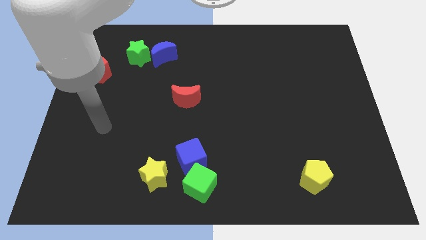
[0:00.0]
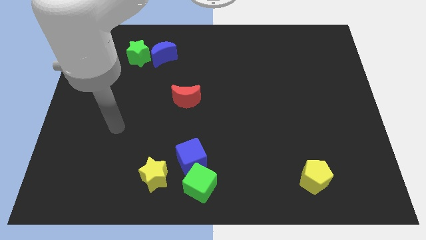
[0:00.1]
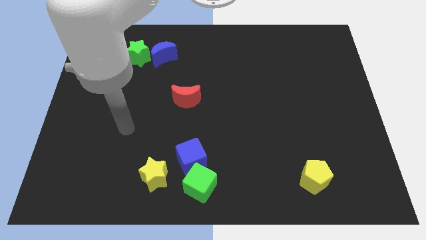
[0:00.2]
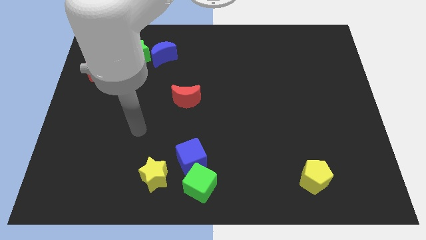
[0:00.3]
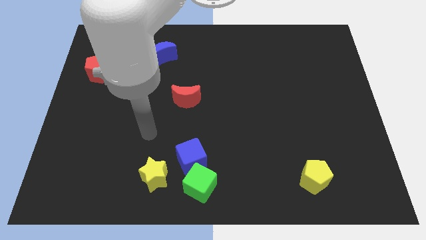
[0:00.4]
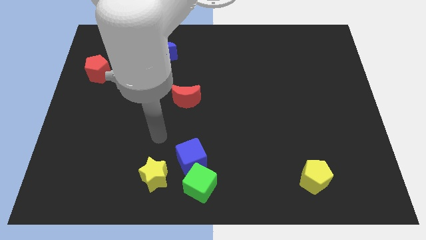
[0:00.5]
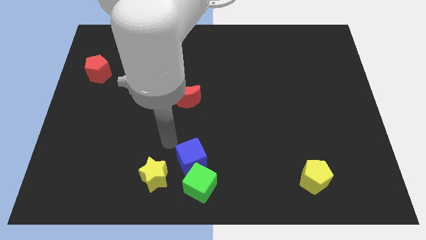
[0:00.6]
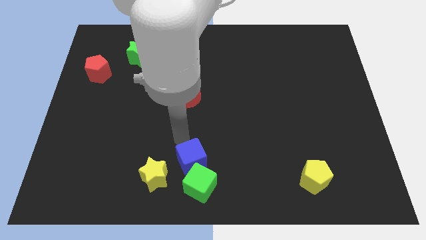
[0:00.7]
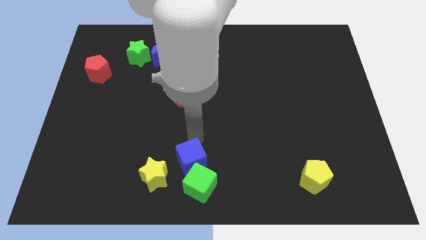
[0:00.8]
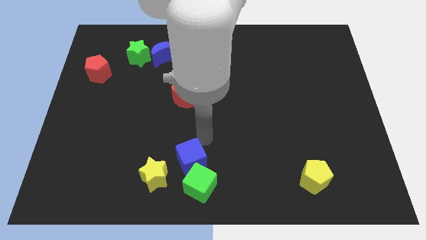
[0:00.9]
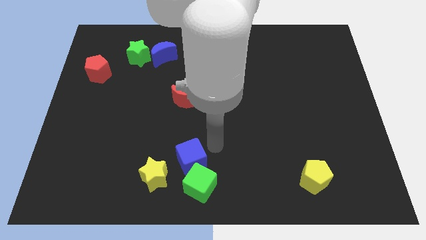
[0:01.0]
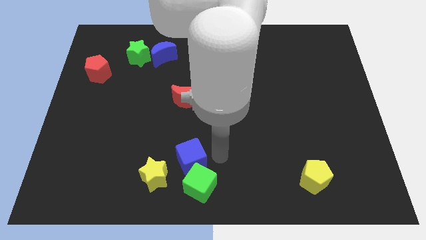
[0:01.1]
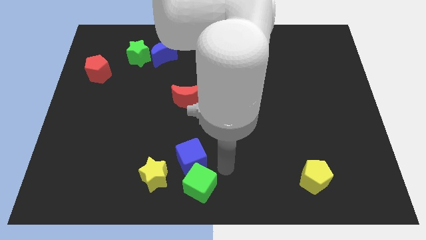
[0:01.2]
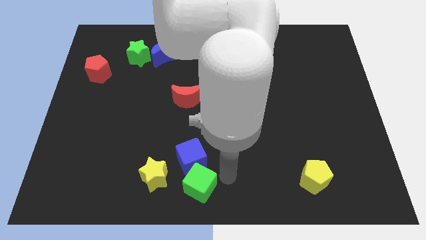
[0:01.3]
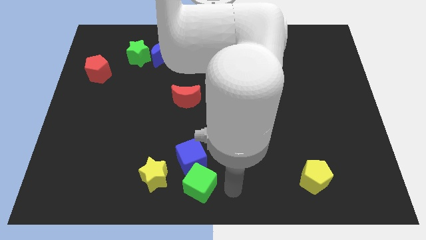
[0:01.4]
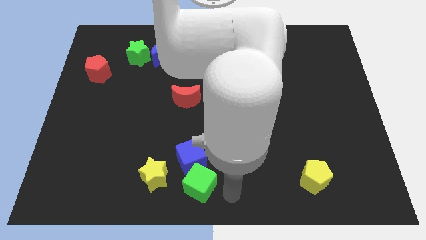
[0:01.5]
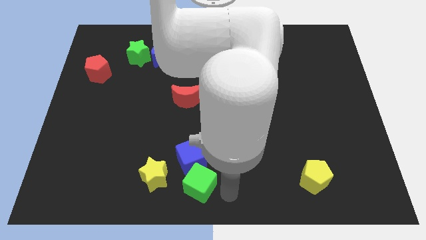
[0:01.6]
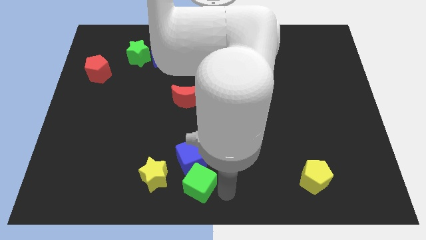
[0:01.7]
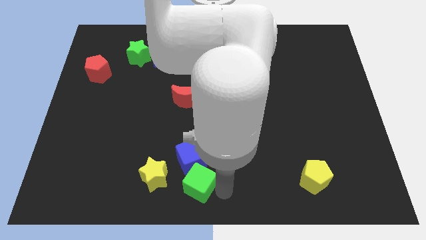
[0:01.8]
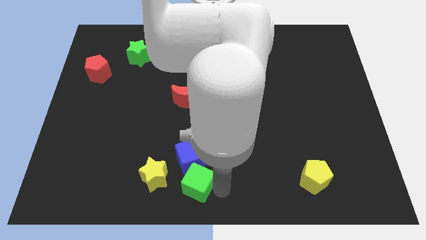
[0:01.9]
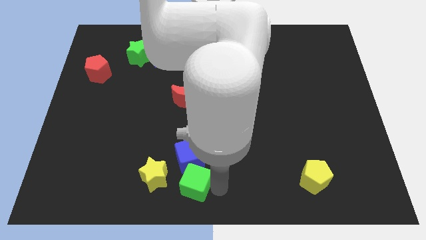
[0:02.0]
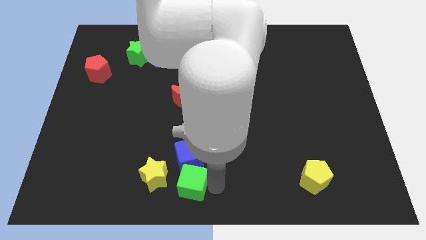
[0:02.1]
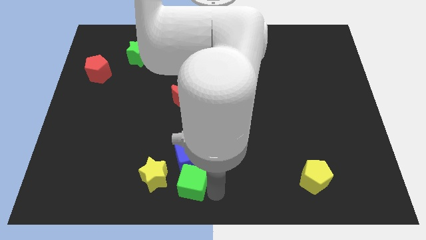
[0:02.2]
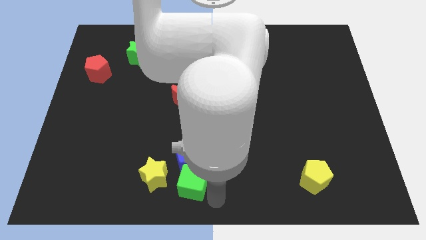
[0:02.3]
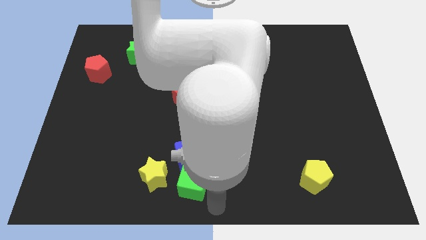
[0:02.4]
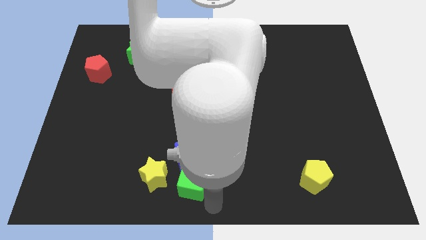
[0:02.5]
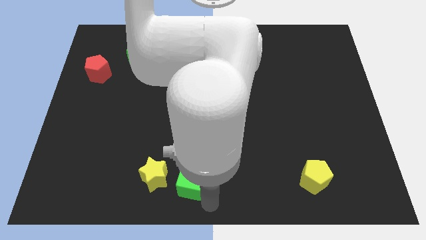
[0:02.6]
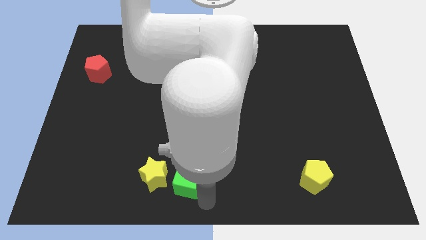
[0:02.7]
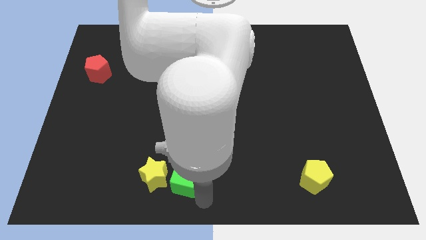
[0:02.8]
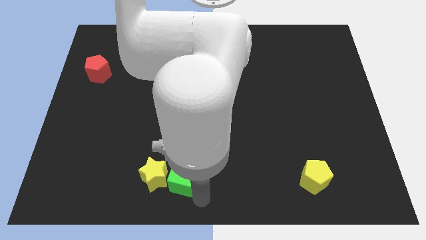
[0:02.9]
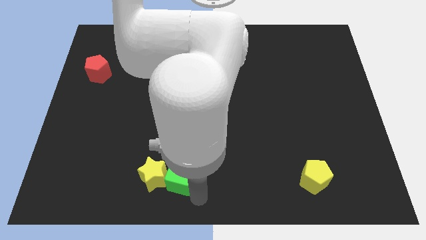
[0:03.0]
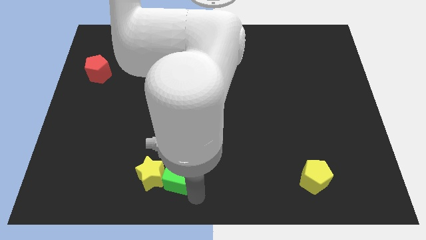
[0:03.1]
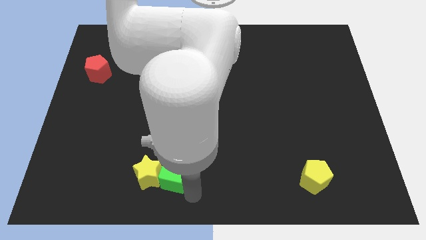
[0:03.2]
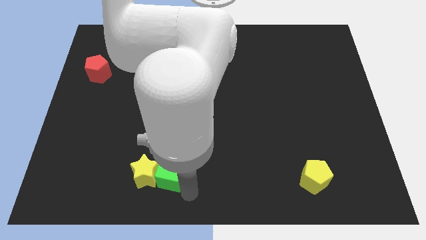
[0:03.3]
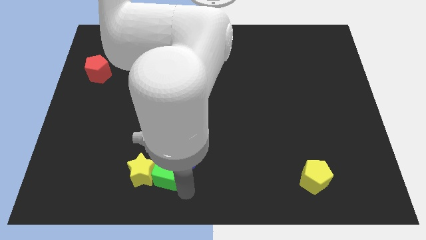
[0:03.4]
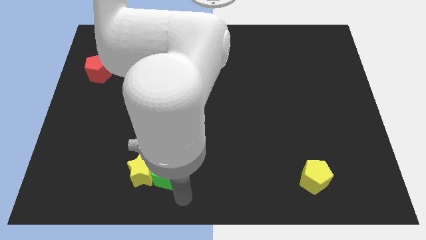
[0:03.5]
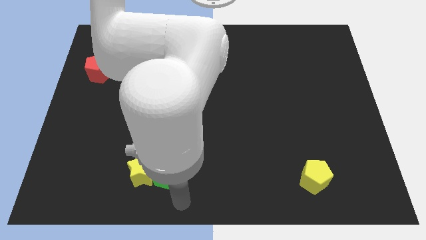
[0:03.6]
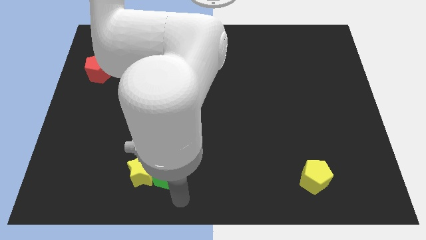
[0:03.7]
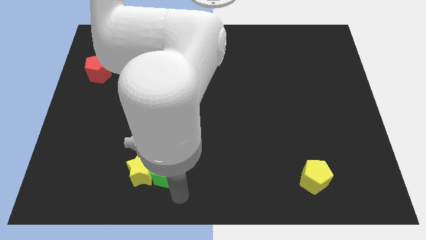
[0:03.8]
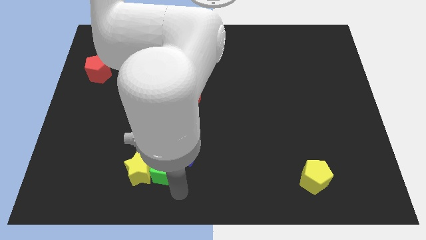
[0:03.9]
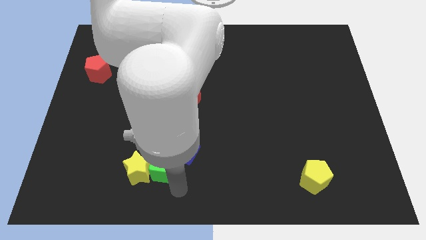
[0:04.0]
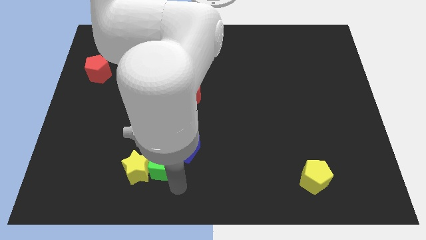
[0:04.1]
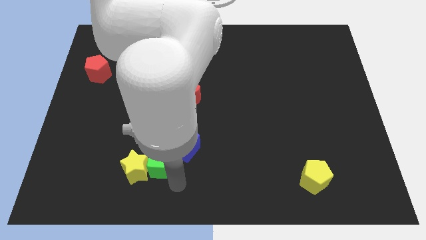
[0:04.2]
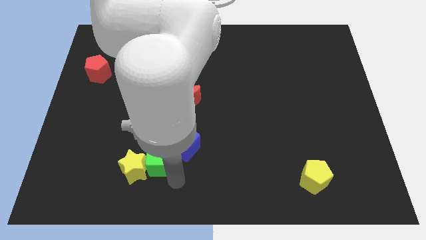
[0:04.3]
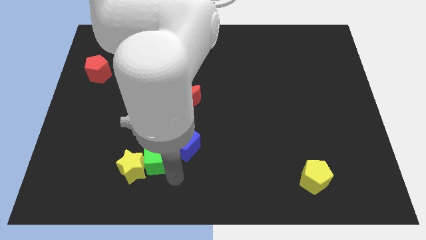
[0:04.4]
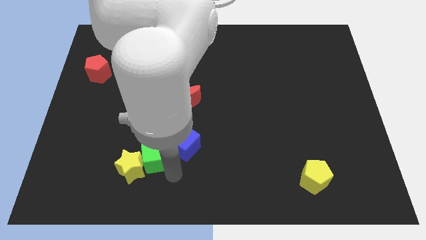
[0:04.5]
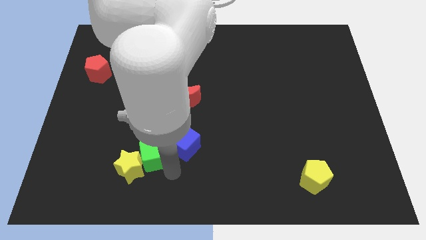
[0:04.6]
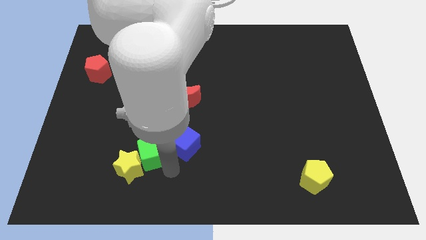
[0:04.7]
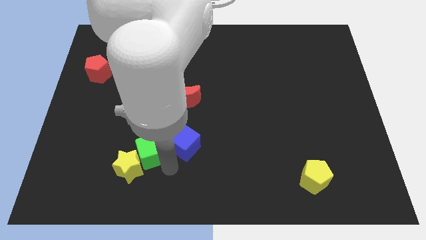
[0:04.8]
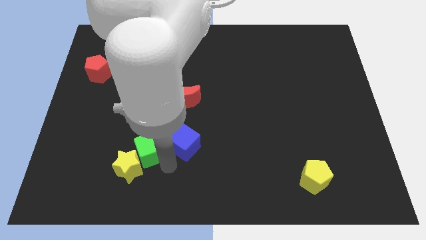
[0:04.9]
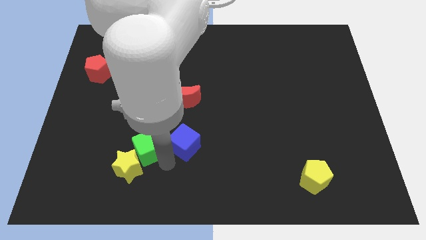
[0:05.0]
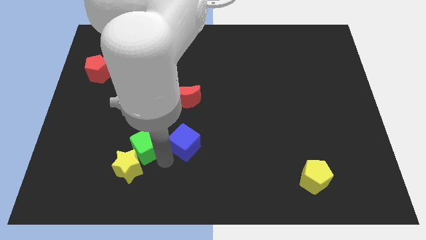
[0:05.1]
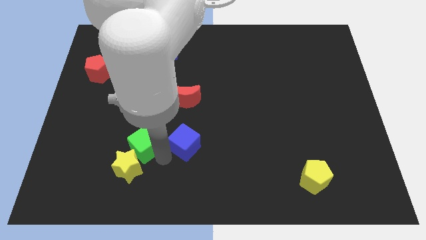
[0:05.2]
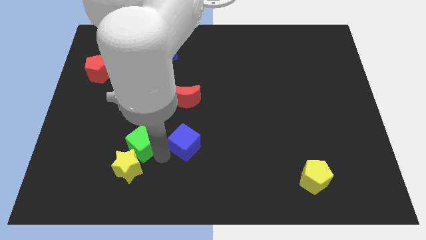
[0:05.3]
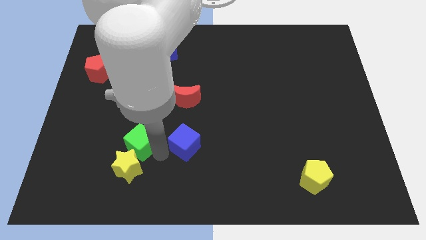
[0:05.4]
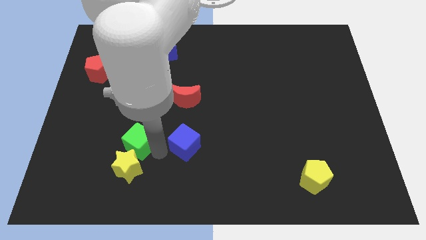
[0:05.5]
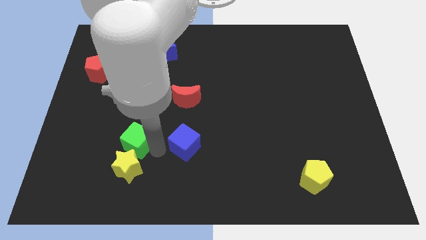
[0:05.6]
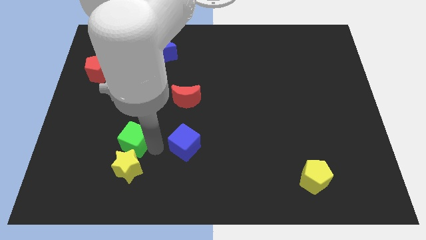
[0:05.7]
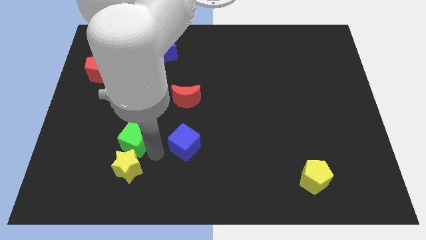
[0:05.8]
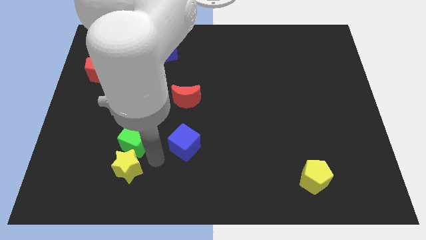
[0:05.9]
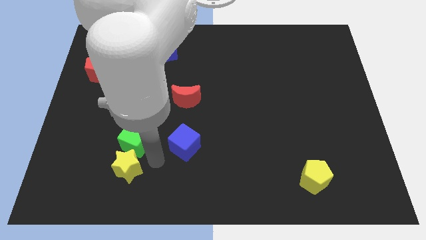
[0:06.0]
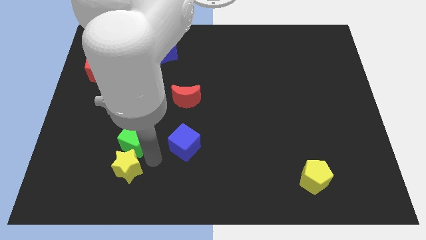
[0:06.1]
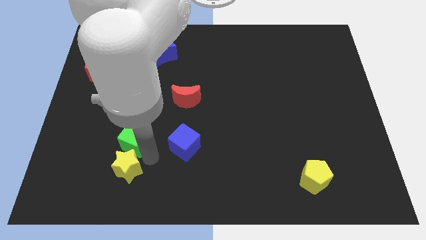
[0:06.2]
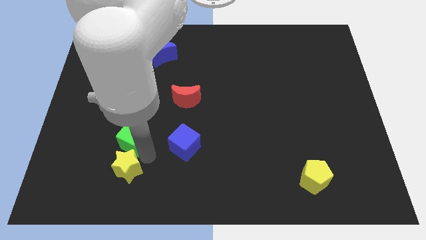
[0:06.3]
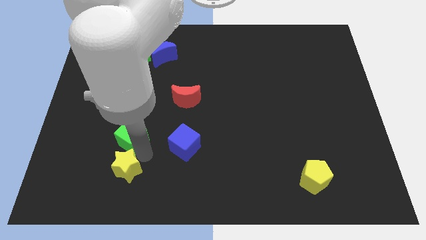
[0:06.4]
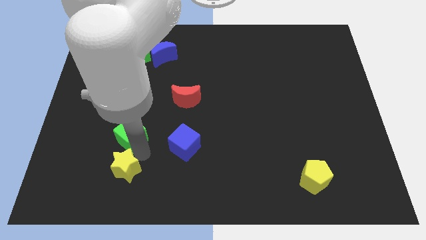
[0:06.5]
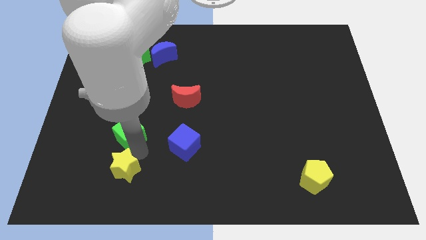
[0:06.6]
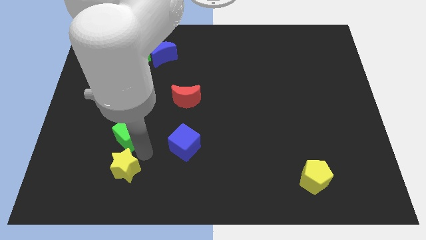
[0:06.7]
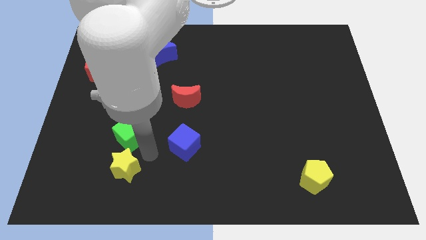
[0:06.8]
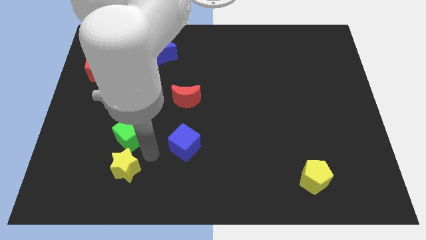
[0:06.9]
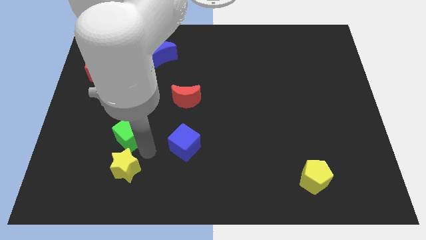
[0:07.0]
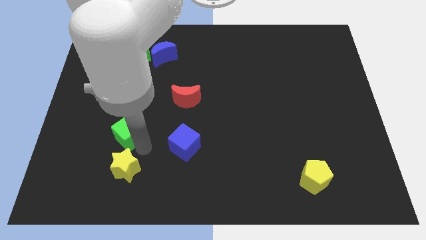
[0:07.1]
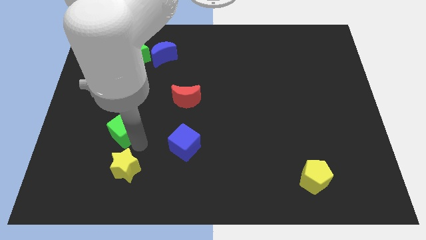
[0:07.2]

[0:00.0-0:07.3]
move the green cube up and left diagonally

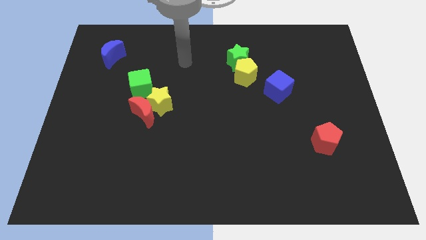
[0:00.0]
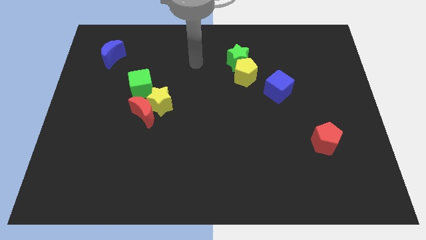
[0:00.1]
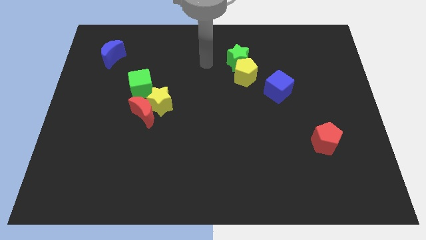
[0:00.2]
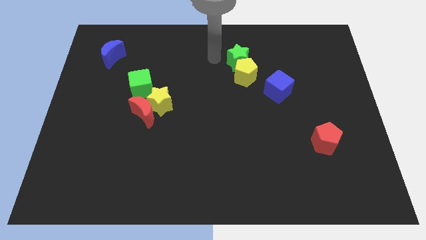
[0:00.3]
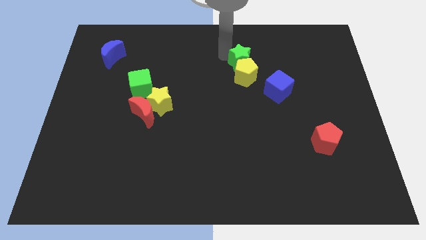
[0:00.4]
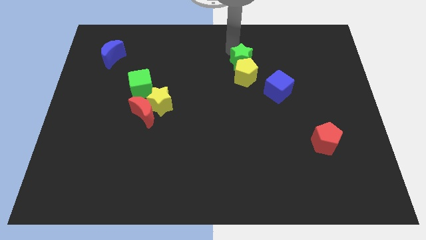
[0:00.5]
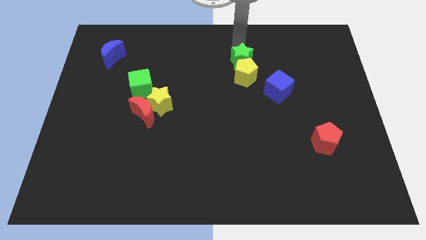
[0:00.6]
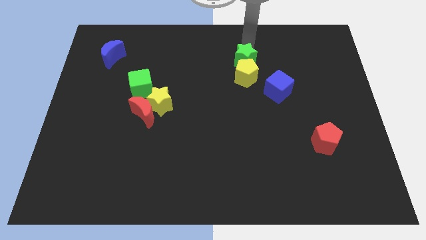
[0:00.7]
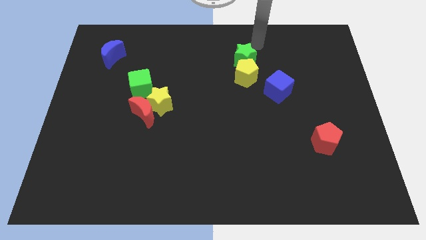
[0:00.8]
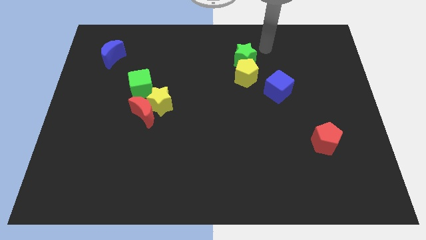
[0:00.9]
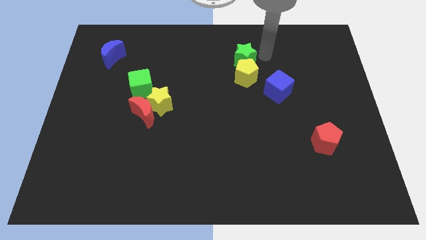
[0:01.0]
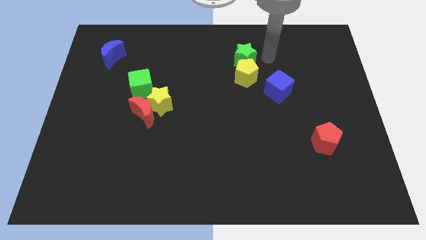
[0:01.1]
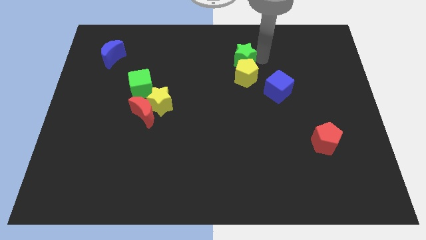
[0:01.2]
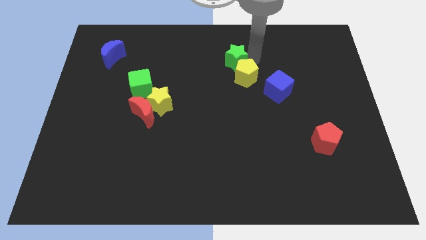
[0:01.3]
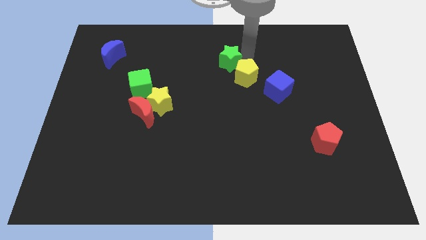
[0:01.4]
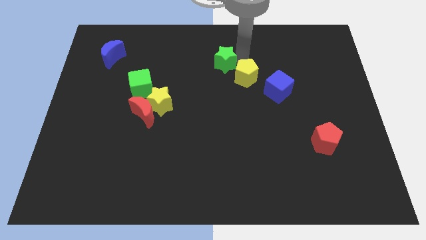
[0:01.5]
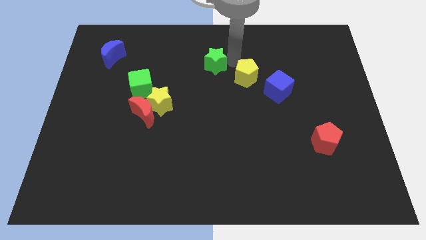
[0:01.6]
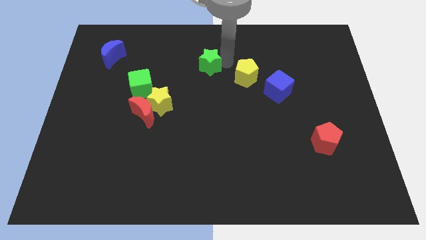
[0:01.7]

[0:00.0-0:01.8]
move the green star a little bit left
